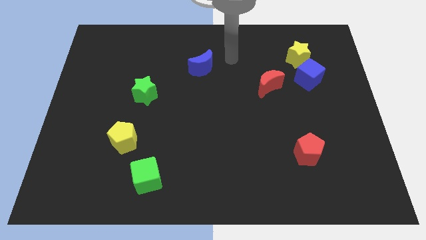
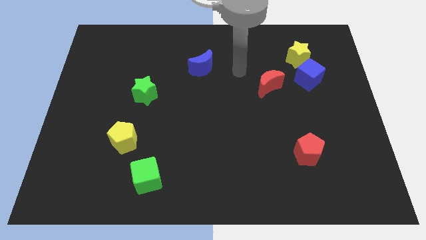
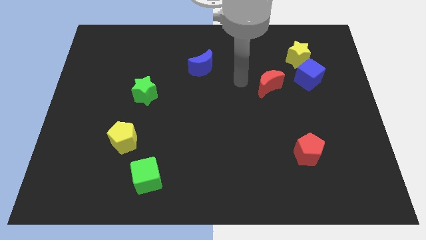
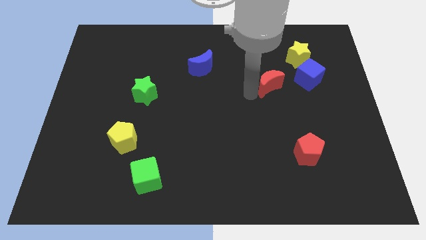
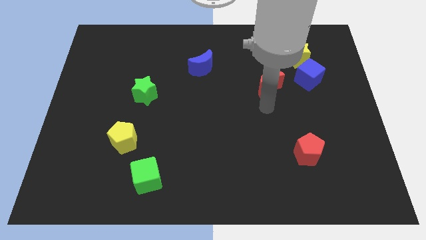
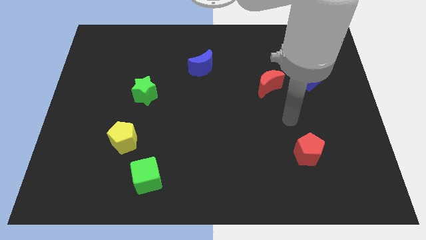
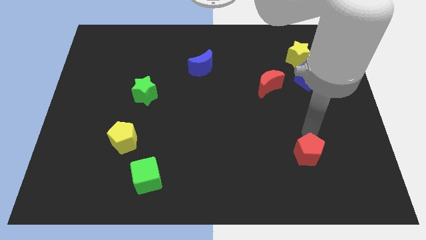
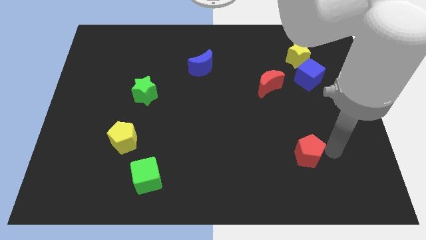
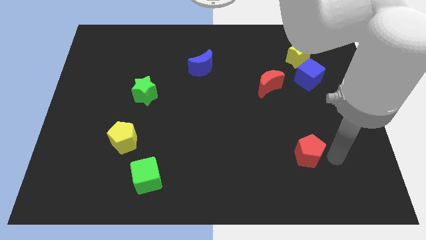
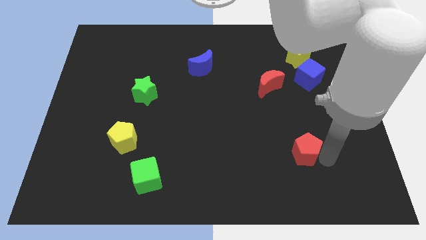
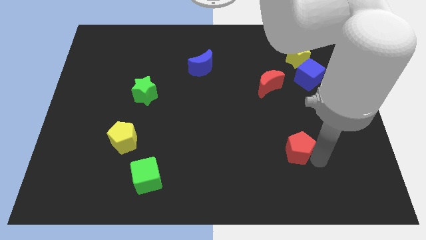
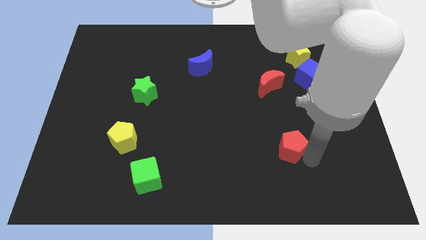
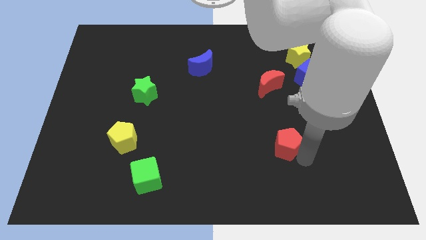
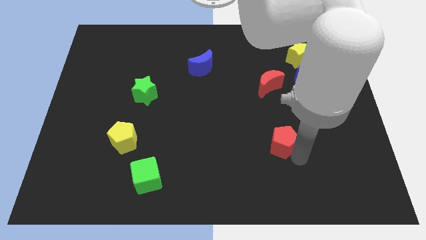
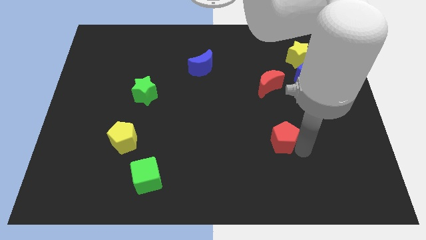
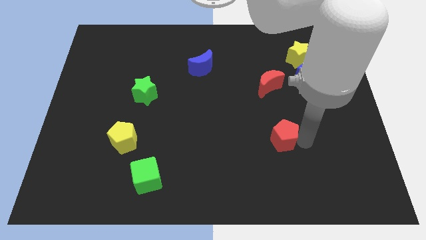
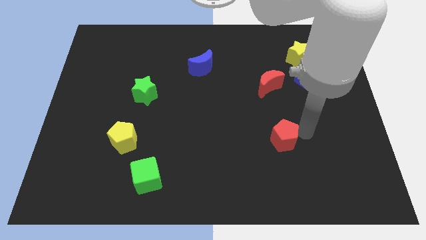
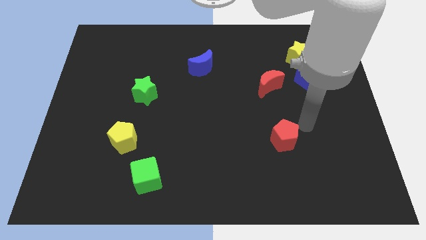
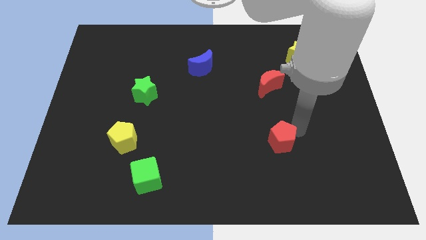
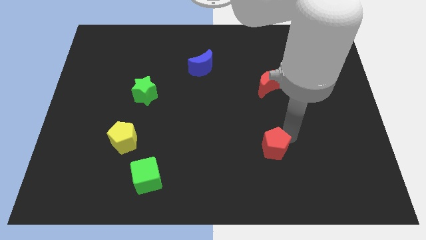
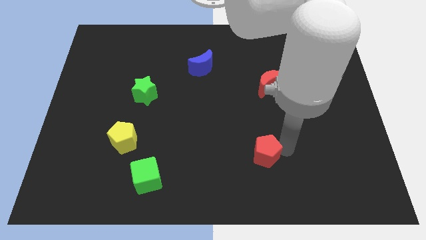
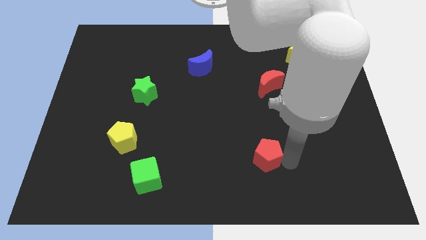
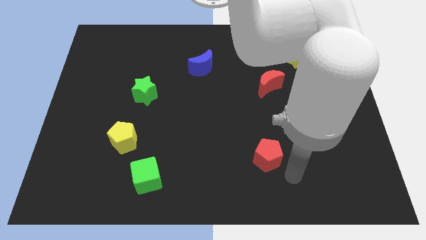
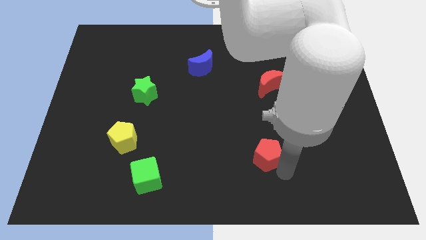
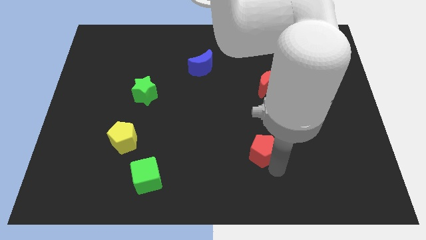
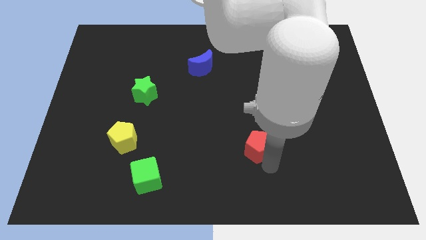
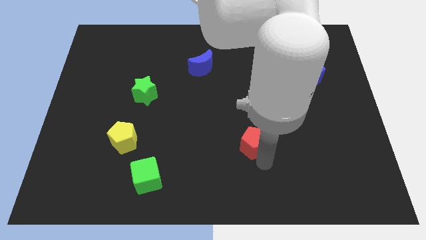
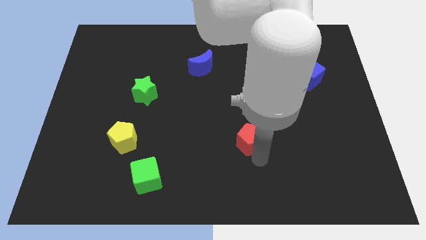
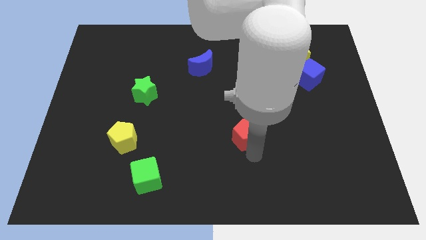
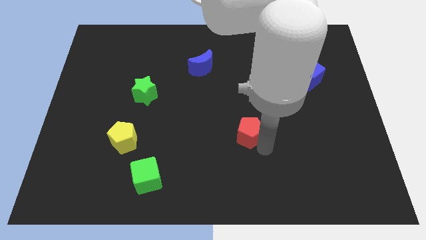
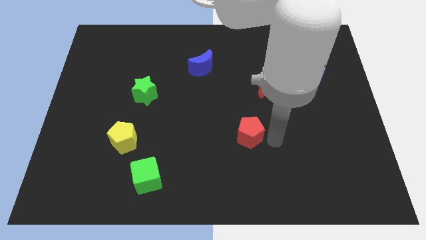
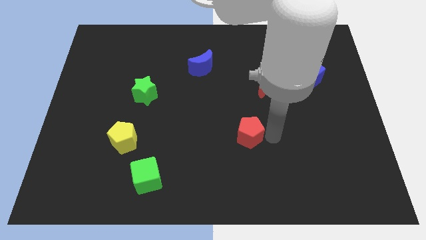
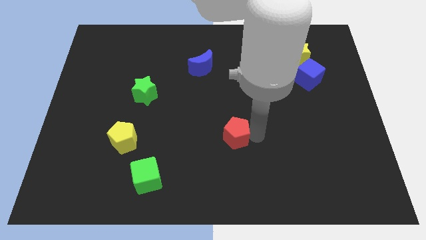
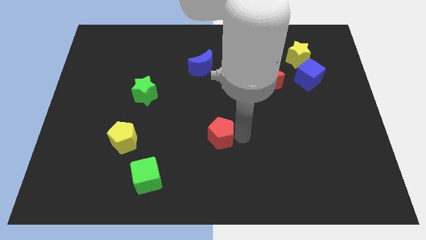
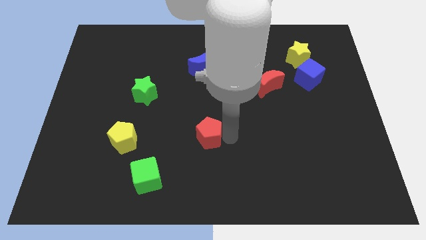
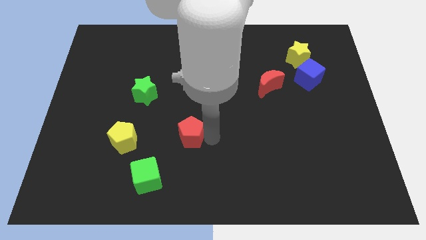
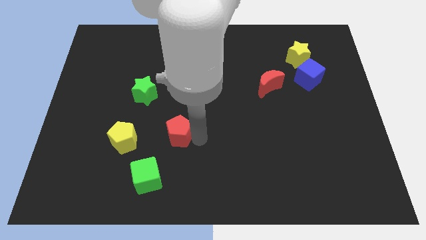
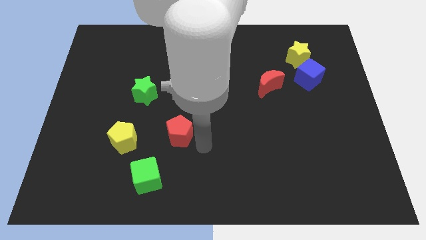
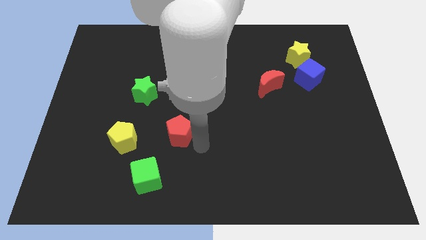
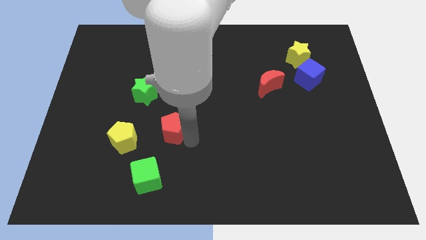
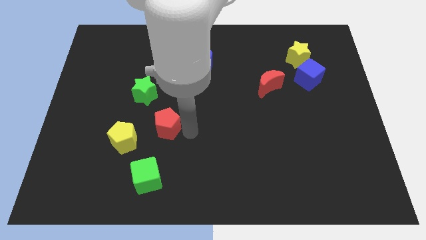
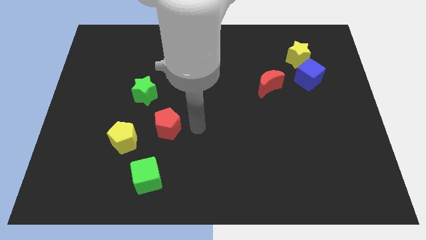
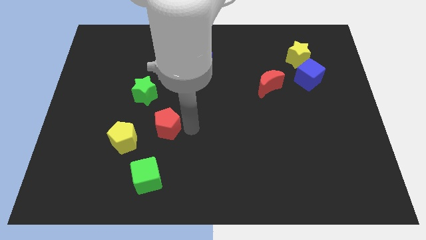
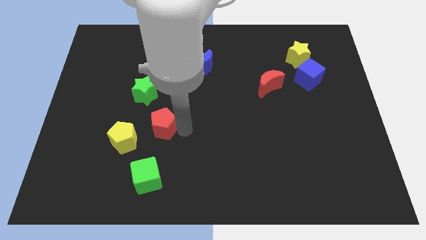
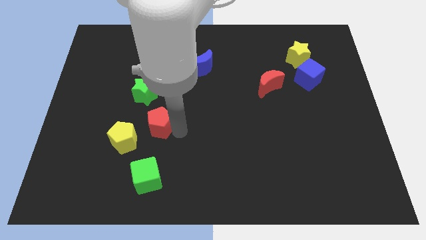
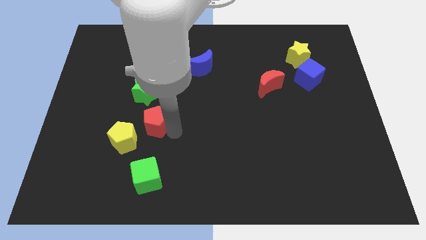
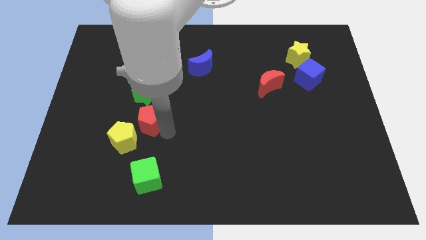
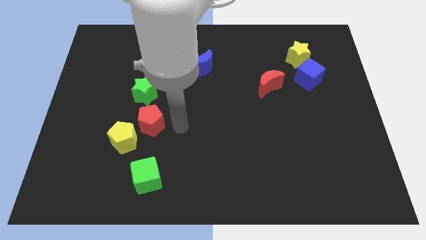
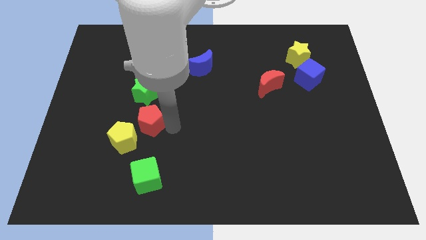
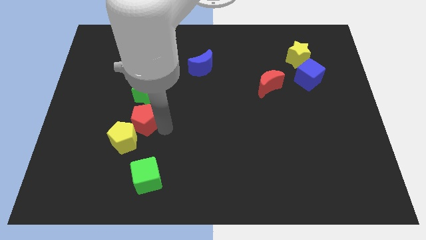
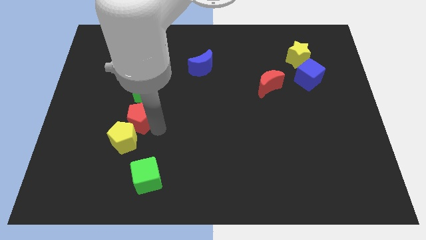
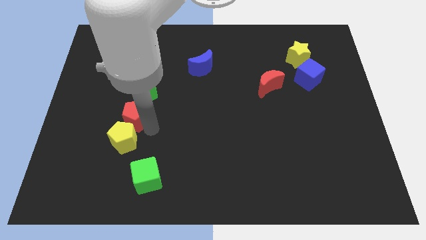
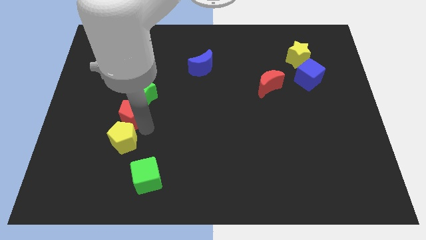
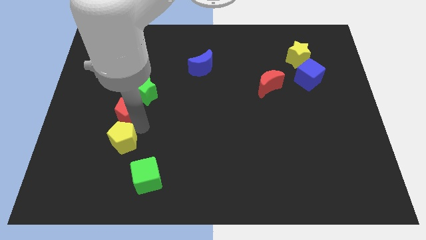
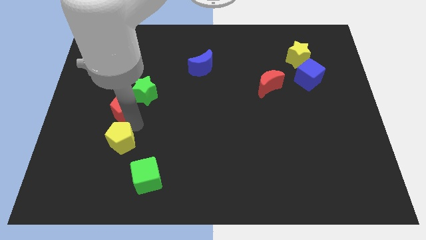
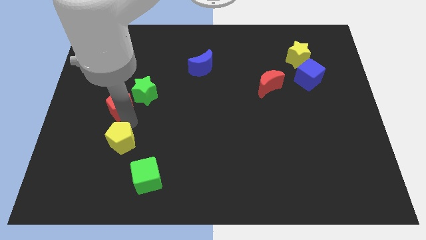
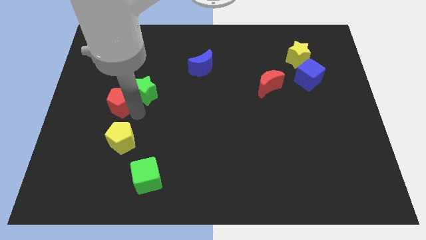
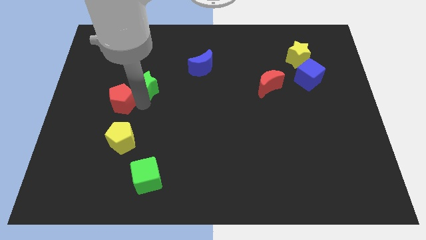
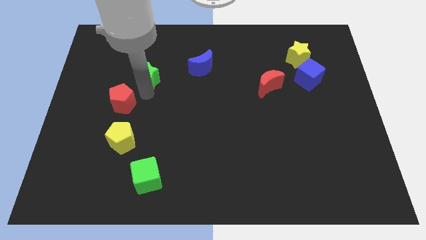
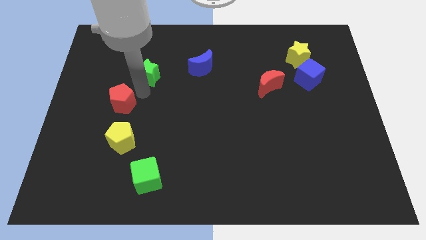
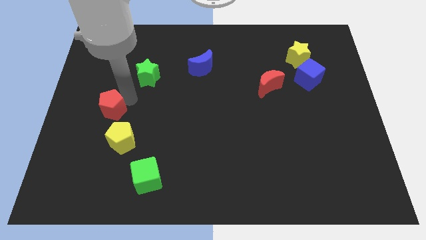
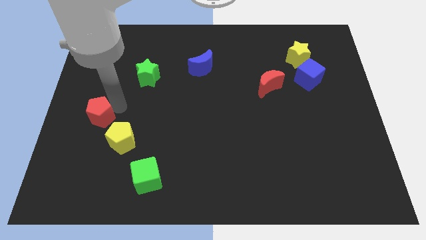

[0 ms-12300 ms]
move the red pentagon to the center left
